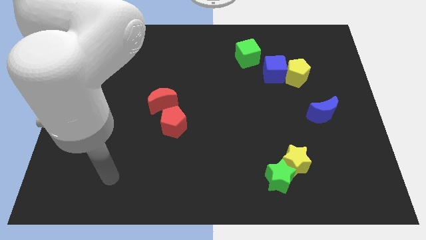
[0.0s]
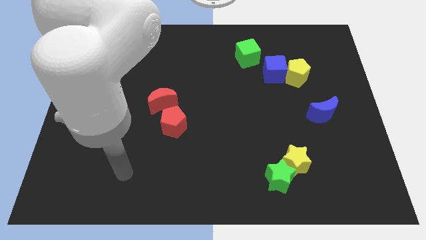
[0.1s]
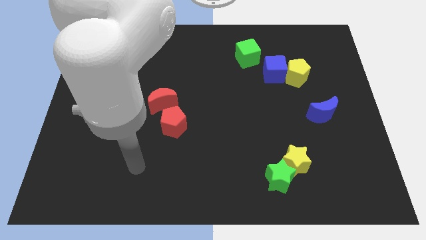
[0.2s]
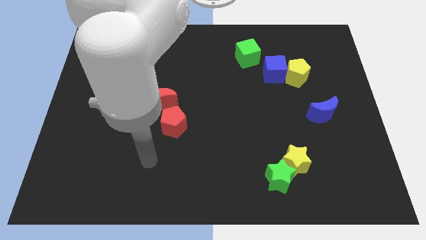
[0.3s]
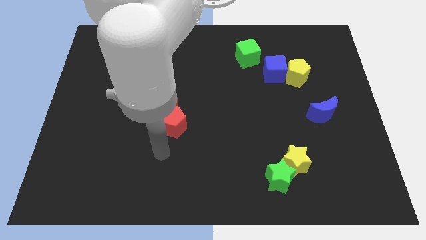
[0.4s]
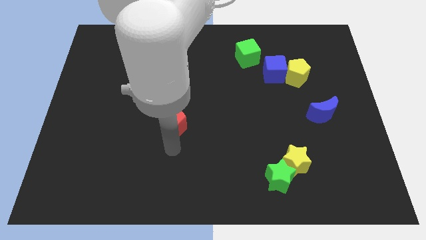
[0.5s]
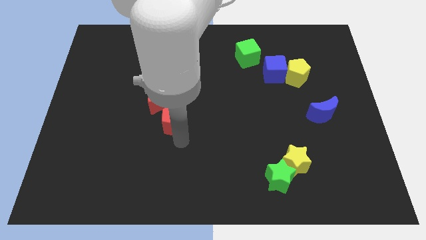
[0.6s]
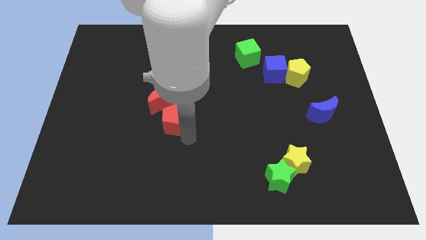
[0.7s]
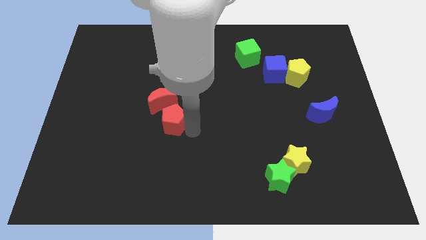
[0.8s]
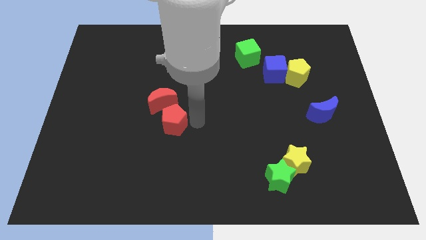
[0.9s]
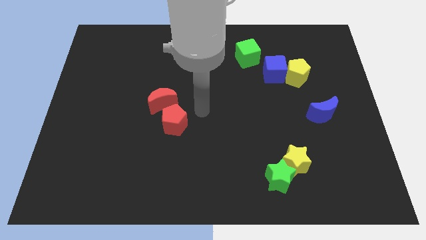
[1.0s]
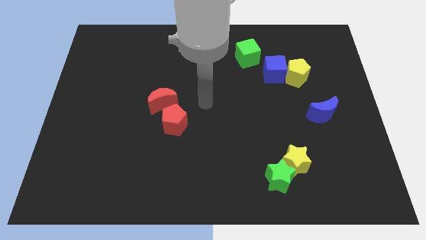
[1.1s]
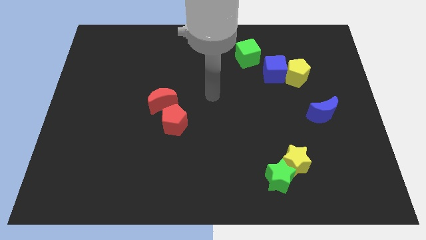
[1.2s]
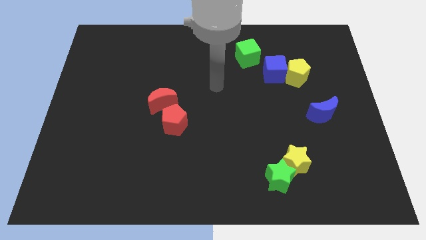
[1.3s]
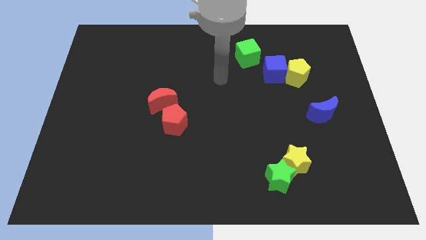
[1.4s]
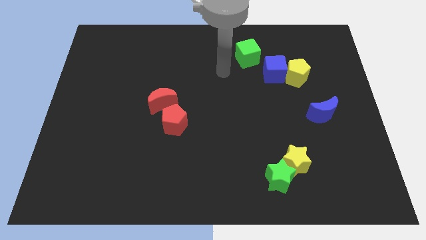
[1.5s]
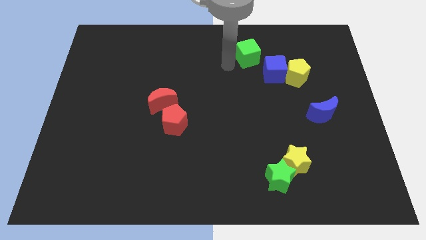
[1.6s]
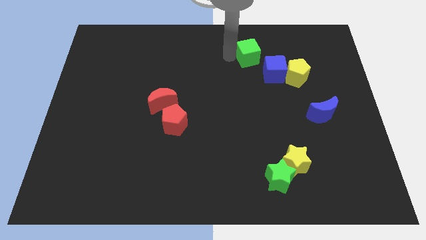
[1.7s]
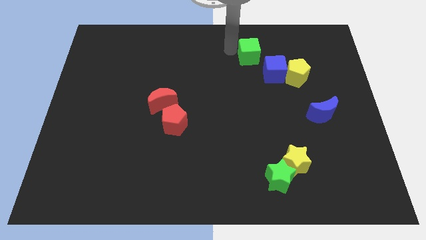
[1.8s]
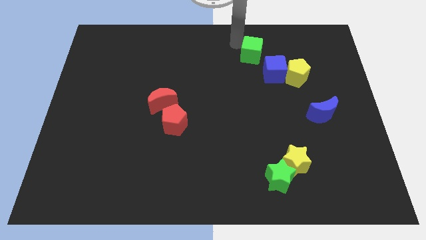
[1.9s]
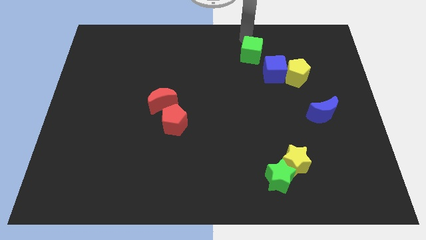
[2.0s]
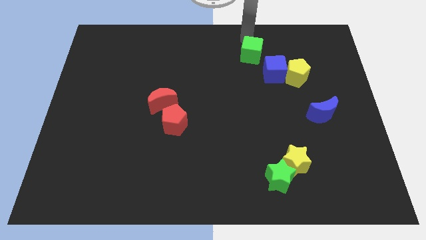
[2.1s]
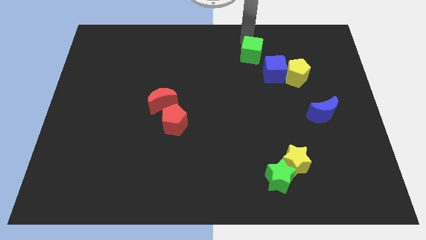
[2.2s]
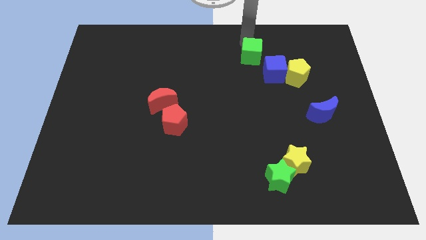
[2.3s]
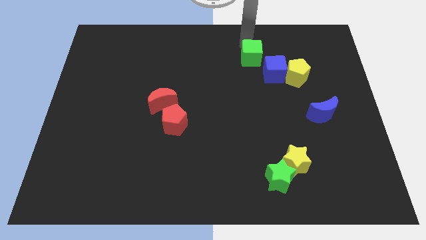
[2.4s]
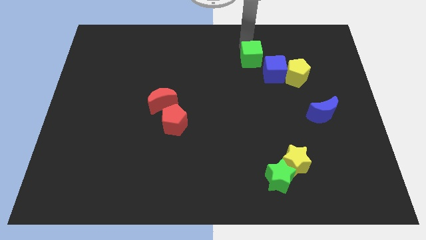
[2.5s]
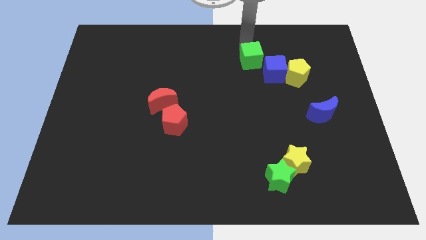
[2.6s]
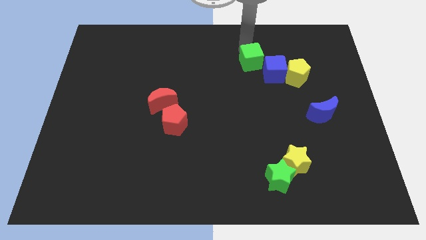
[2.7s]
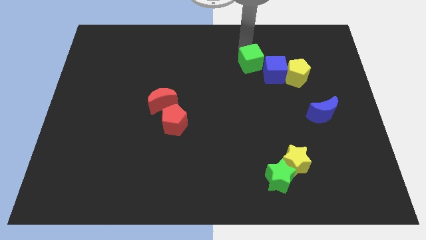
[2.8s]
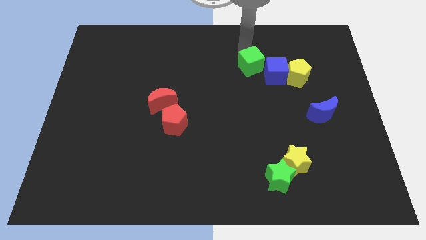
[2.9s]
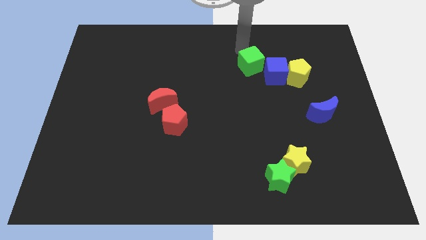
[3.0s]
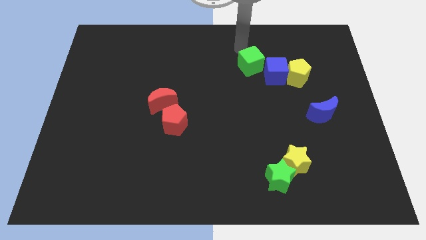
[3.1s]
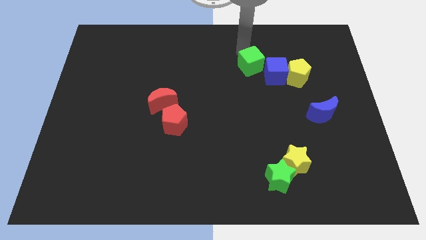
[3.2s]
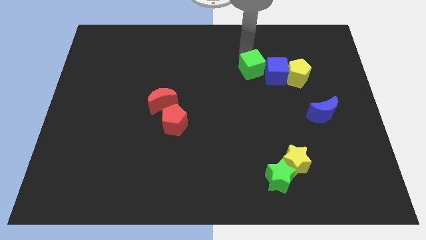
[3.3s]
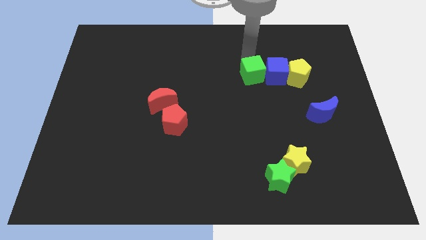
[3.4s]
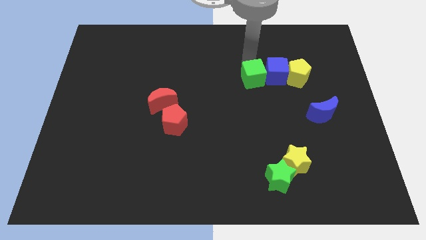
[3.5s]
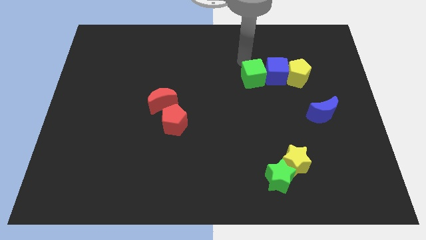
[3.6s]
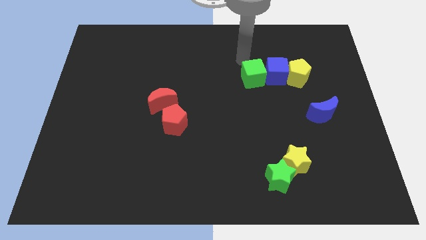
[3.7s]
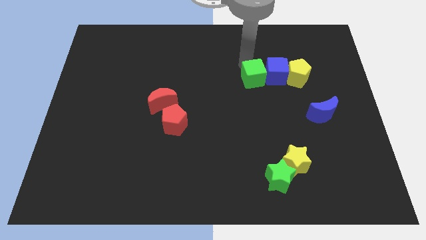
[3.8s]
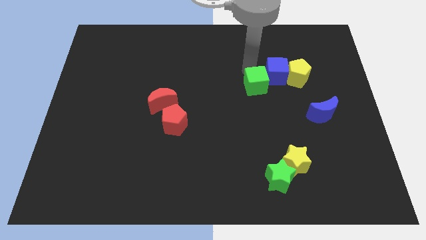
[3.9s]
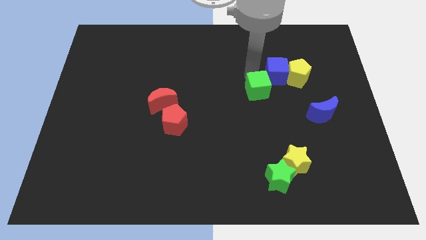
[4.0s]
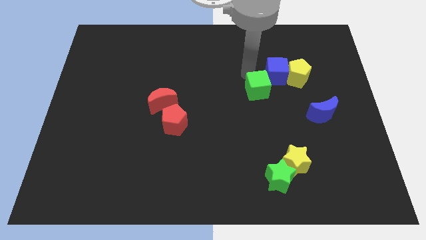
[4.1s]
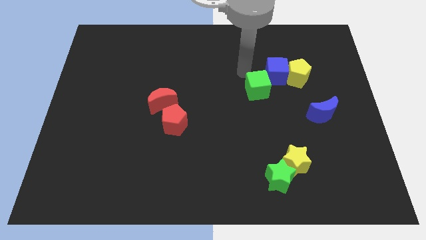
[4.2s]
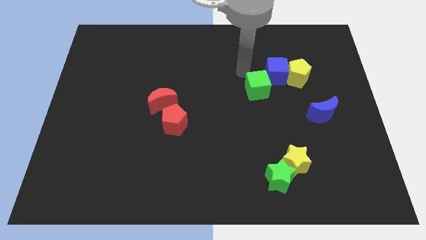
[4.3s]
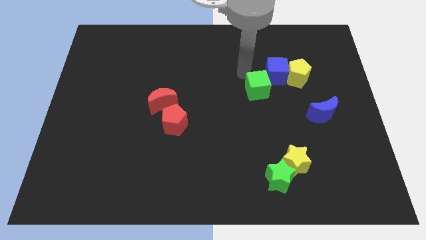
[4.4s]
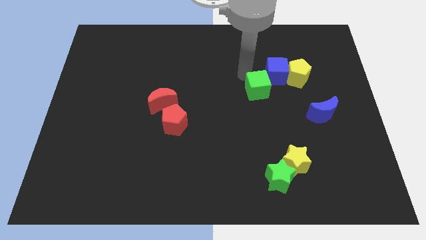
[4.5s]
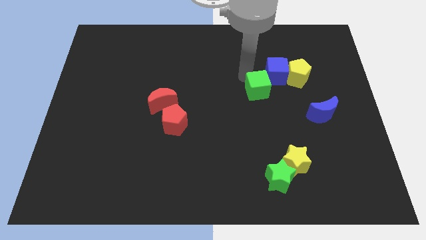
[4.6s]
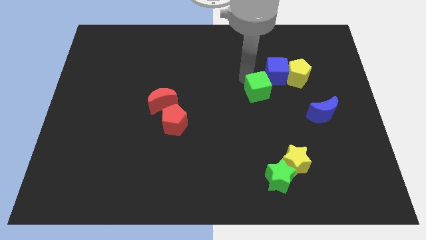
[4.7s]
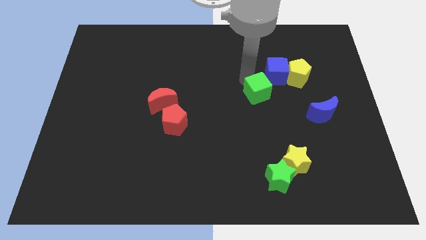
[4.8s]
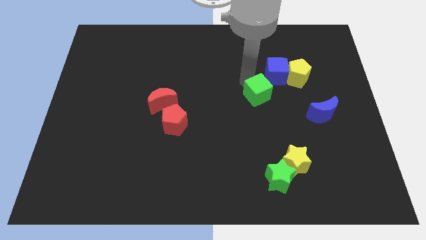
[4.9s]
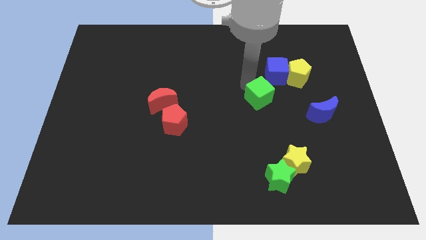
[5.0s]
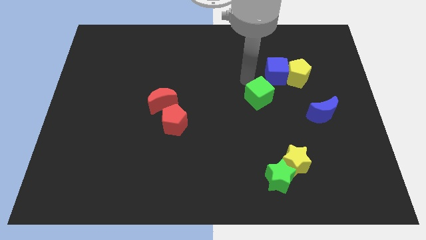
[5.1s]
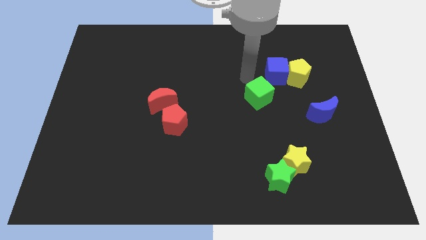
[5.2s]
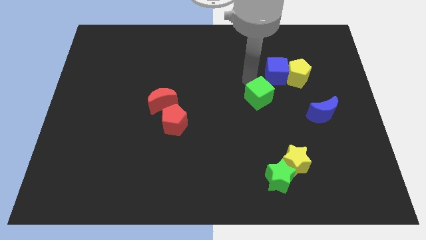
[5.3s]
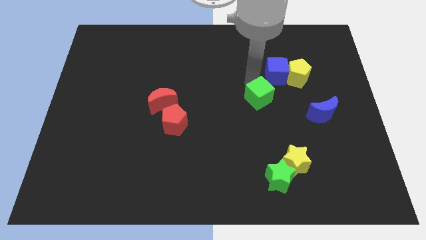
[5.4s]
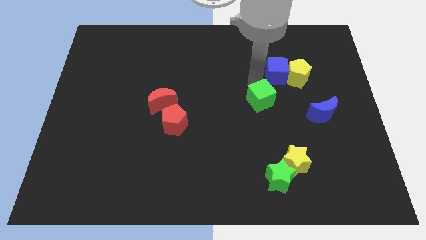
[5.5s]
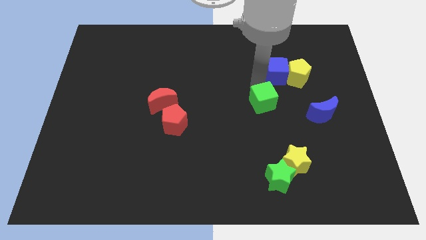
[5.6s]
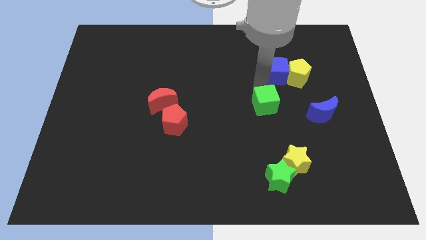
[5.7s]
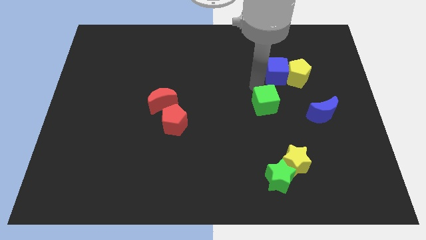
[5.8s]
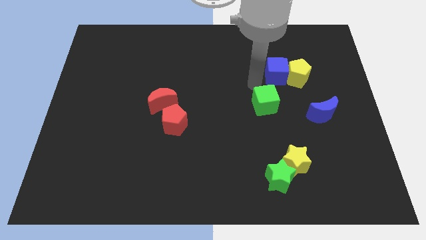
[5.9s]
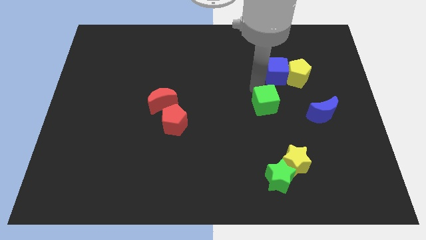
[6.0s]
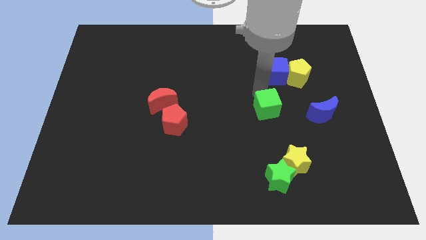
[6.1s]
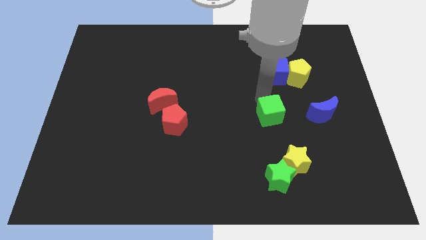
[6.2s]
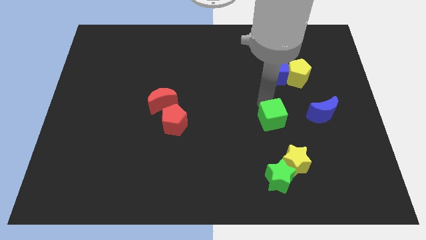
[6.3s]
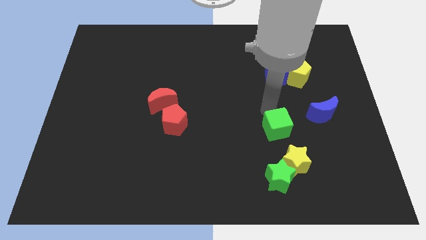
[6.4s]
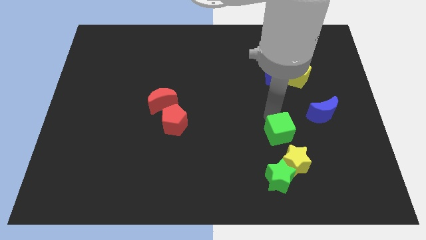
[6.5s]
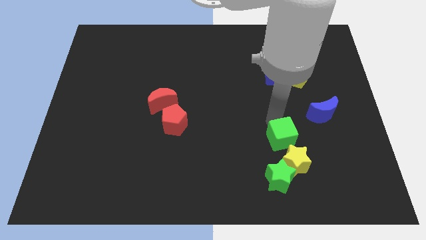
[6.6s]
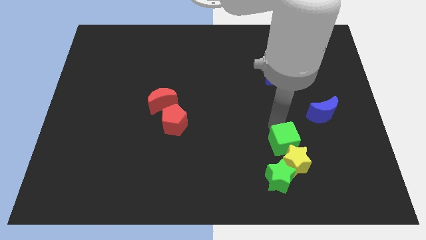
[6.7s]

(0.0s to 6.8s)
move the green cube next to the yellow star

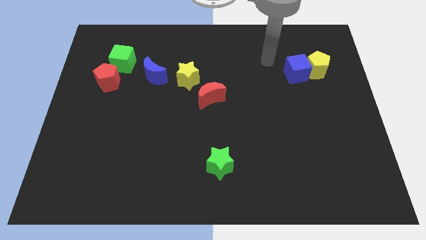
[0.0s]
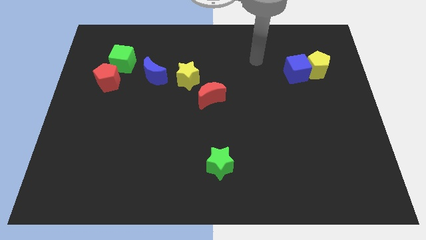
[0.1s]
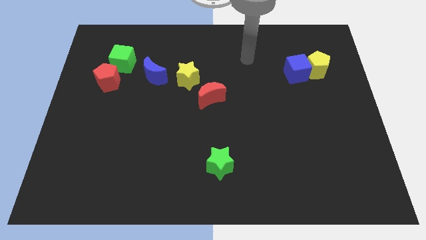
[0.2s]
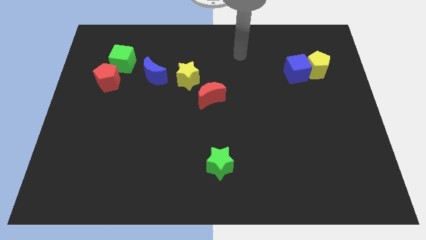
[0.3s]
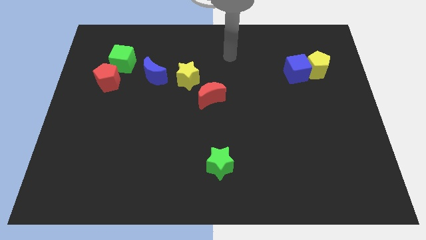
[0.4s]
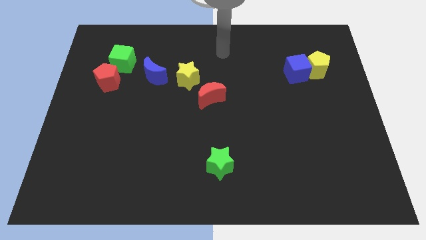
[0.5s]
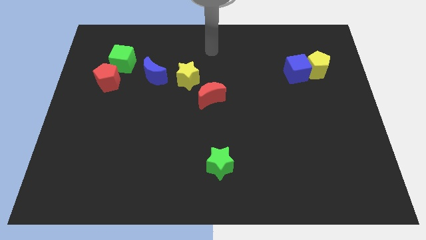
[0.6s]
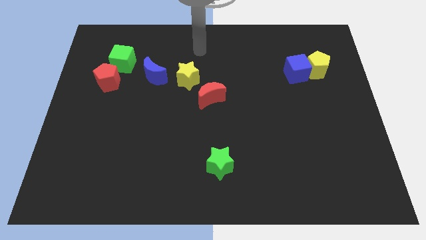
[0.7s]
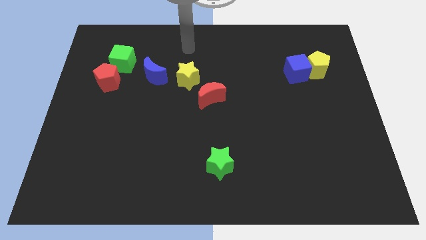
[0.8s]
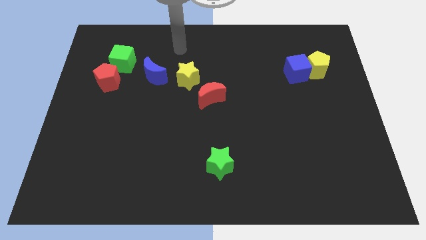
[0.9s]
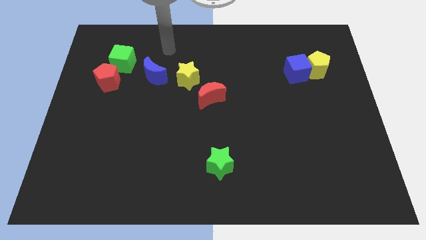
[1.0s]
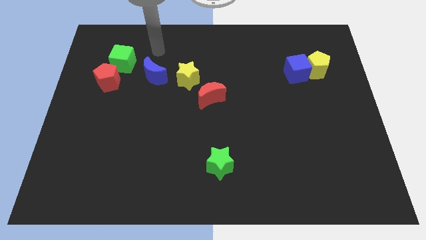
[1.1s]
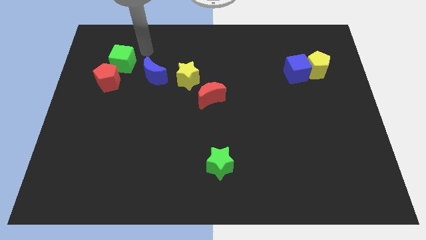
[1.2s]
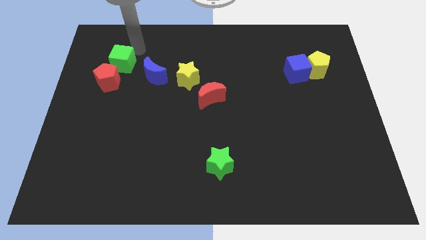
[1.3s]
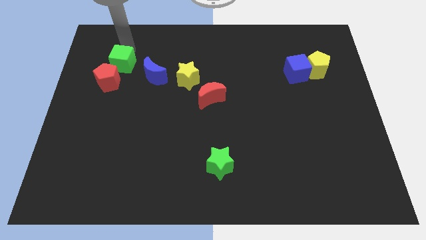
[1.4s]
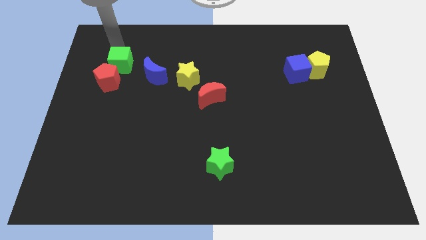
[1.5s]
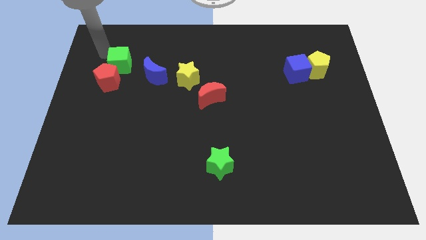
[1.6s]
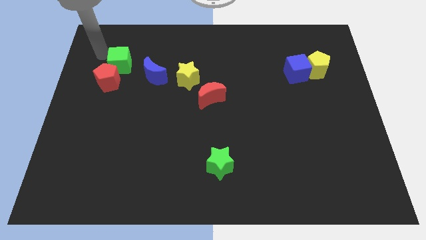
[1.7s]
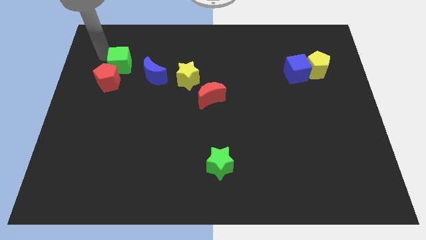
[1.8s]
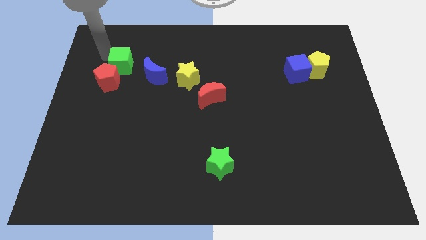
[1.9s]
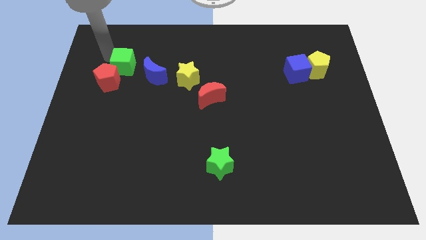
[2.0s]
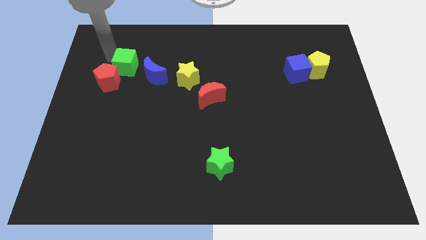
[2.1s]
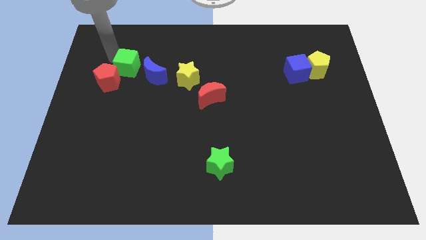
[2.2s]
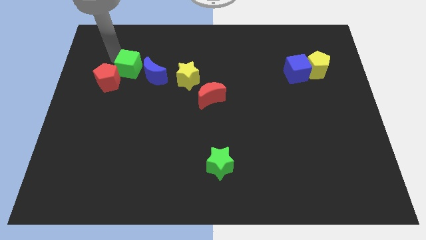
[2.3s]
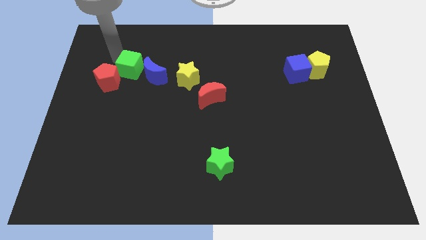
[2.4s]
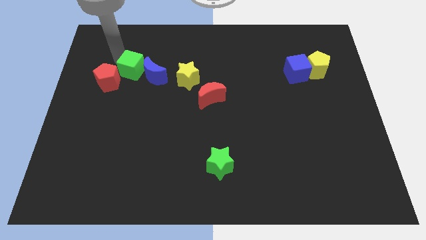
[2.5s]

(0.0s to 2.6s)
slide the green cube close to the blue moon
